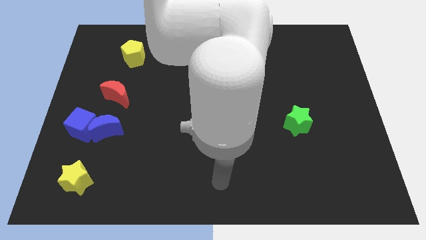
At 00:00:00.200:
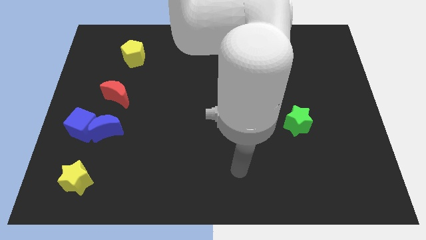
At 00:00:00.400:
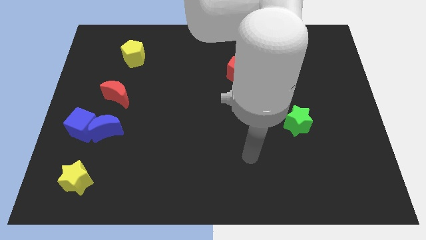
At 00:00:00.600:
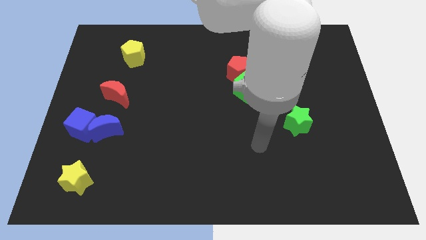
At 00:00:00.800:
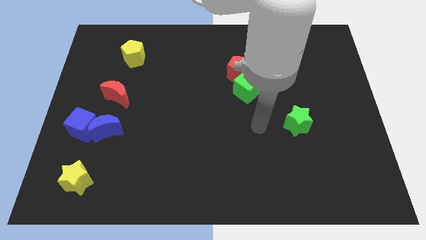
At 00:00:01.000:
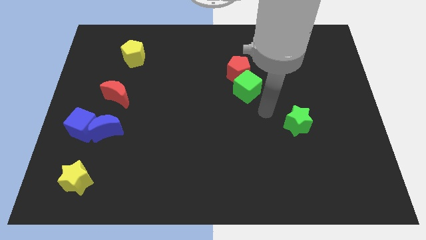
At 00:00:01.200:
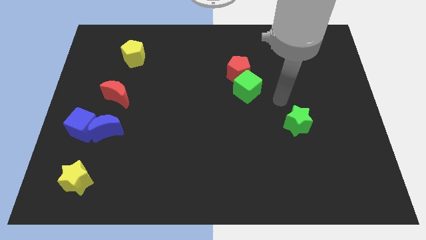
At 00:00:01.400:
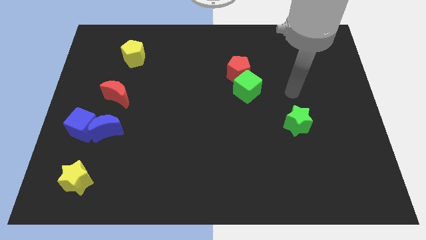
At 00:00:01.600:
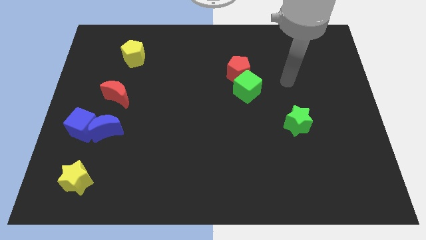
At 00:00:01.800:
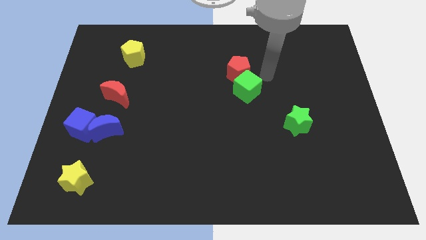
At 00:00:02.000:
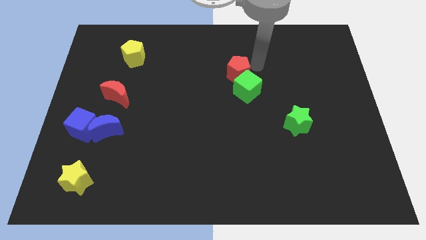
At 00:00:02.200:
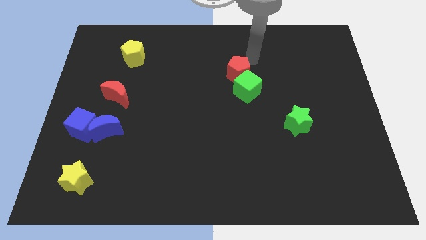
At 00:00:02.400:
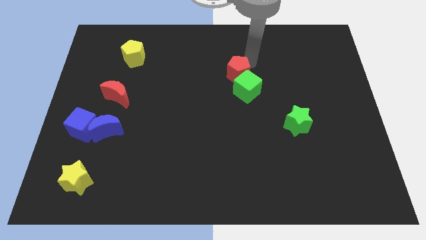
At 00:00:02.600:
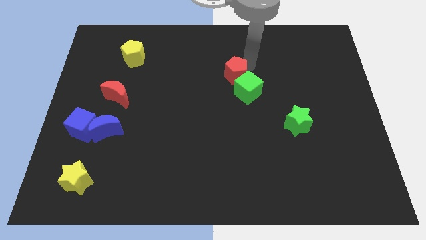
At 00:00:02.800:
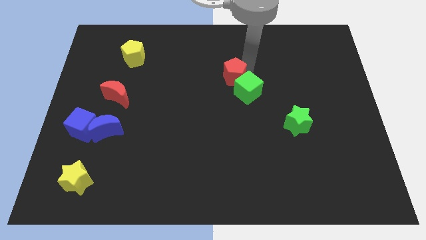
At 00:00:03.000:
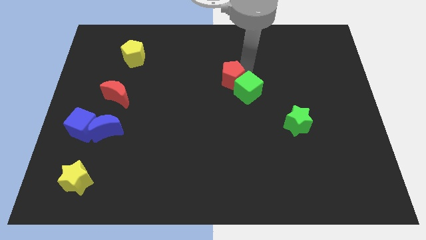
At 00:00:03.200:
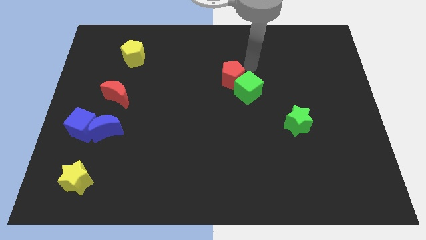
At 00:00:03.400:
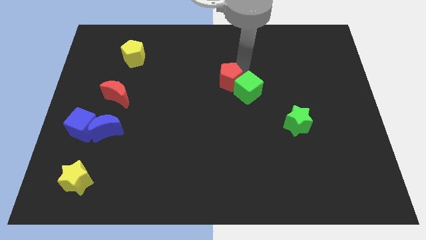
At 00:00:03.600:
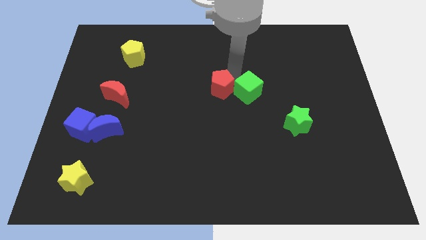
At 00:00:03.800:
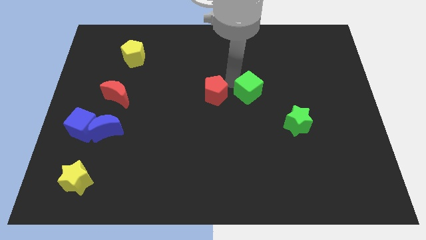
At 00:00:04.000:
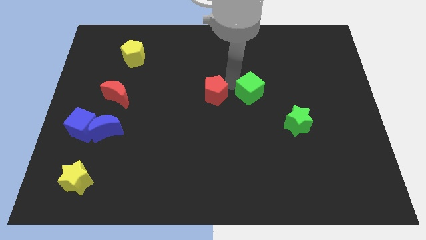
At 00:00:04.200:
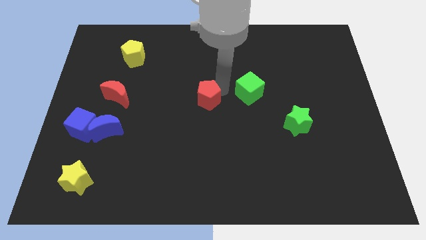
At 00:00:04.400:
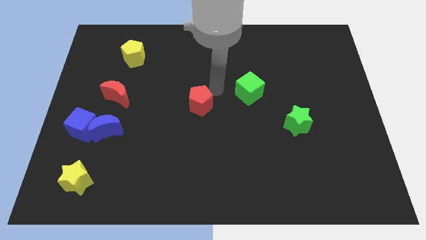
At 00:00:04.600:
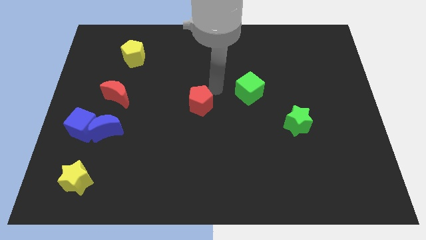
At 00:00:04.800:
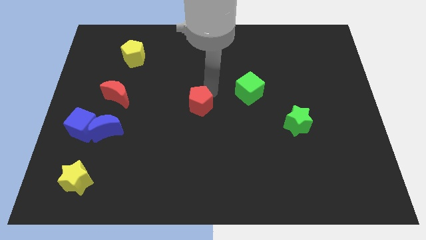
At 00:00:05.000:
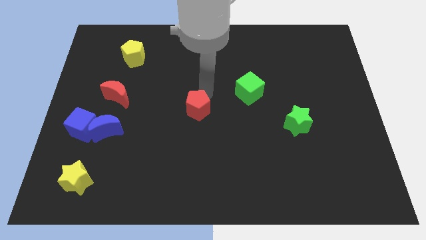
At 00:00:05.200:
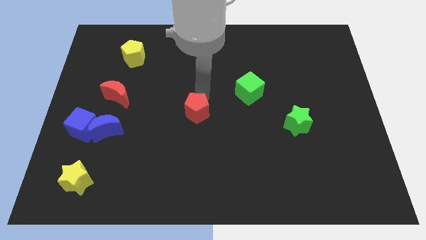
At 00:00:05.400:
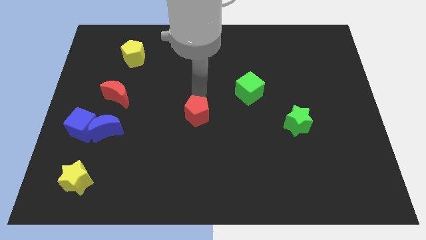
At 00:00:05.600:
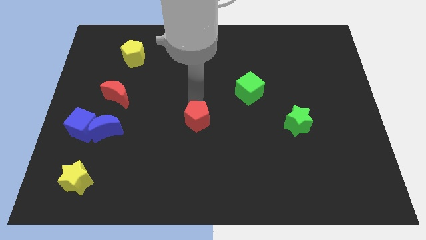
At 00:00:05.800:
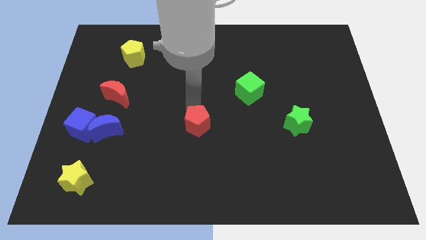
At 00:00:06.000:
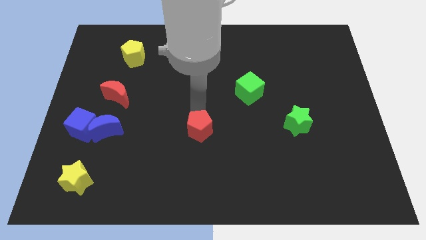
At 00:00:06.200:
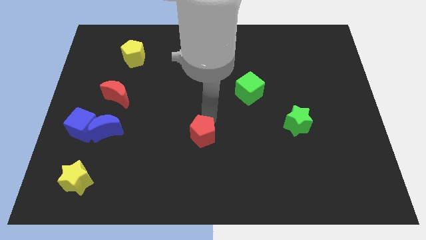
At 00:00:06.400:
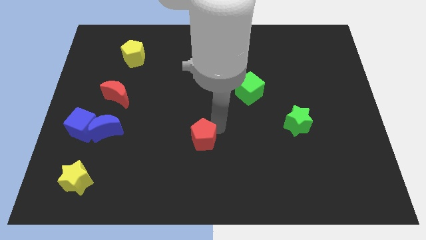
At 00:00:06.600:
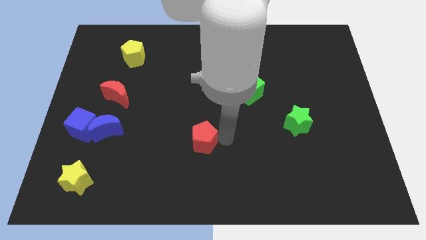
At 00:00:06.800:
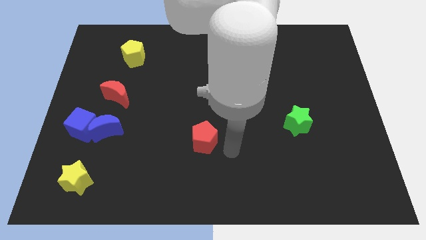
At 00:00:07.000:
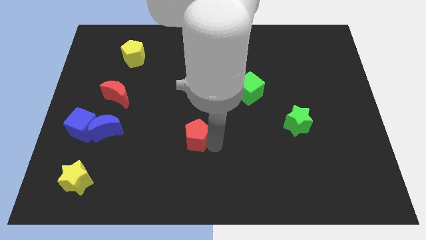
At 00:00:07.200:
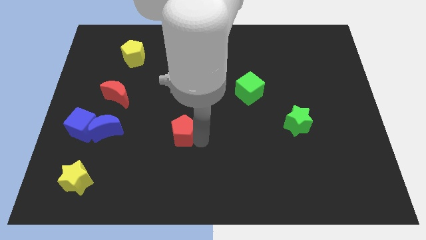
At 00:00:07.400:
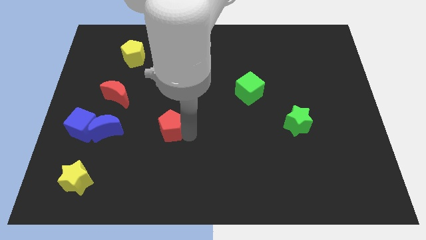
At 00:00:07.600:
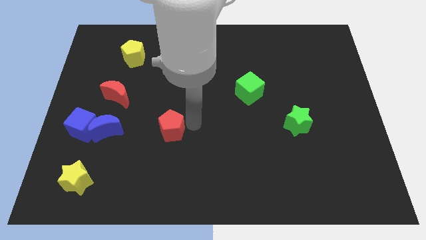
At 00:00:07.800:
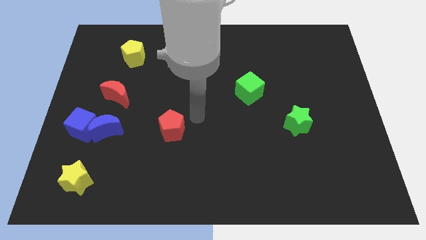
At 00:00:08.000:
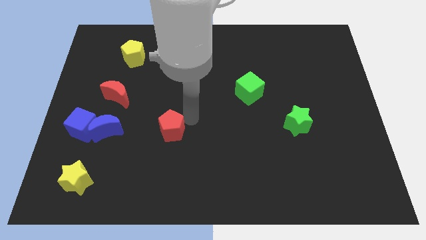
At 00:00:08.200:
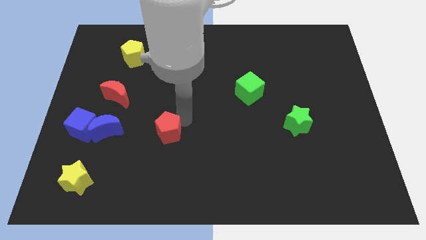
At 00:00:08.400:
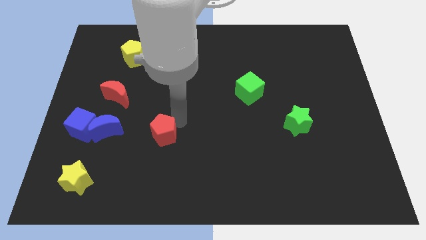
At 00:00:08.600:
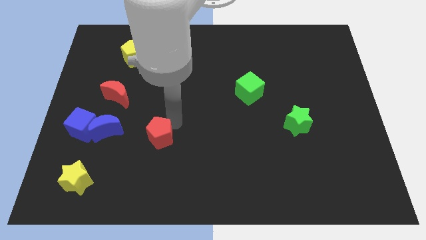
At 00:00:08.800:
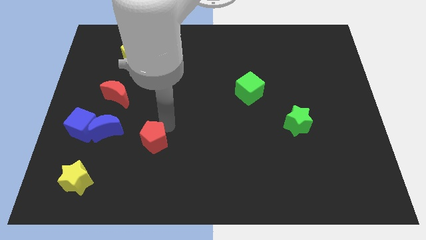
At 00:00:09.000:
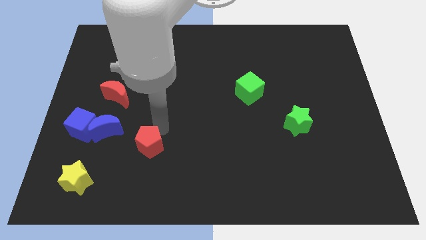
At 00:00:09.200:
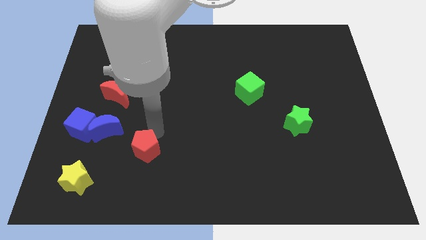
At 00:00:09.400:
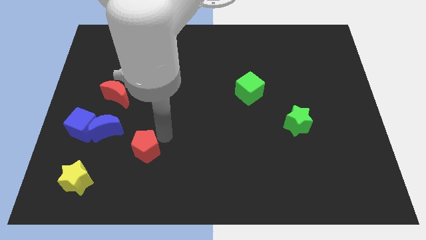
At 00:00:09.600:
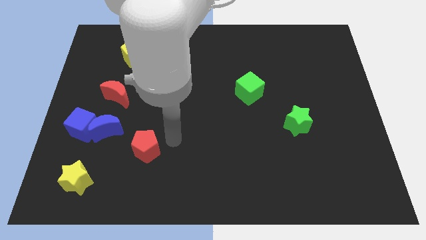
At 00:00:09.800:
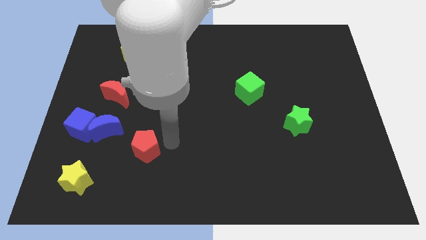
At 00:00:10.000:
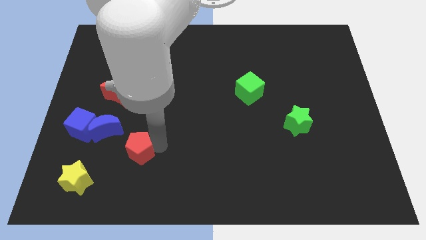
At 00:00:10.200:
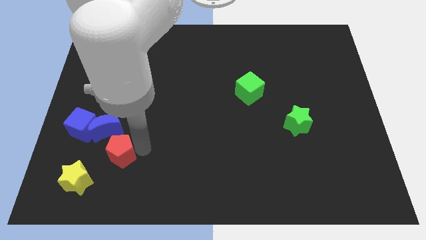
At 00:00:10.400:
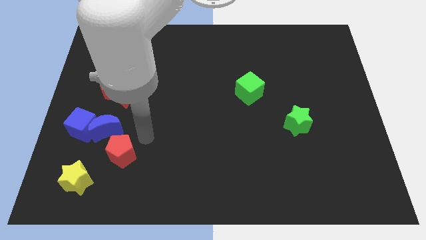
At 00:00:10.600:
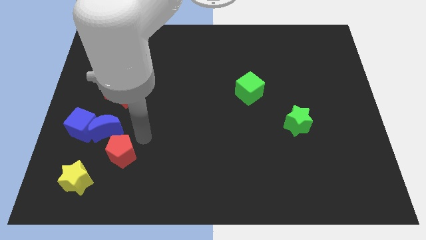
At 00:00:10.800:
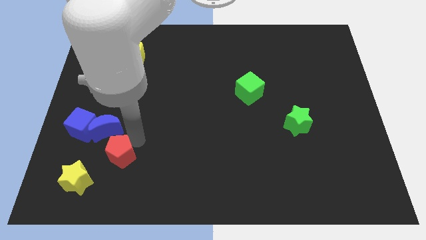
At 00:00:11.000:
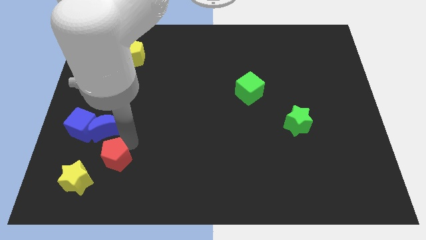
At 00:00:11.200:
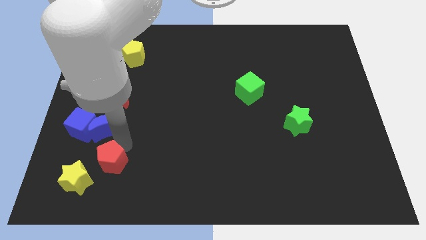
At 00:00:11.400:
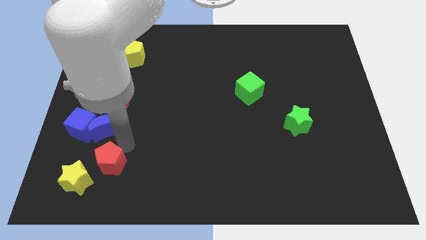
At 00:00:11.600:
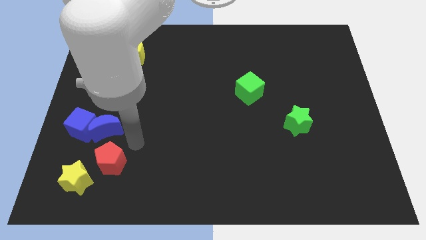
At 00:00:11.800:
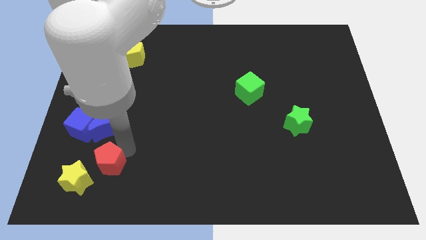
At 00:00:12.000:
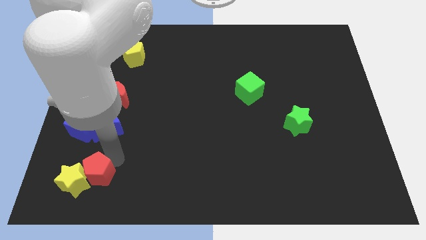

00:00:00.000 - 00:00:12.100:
put the red pentagon to the yellow star

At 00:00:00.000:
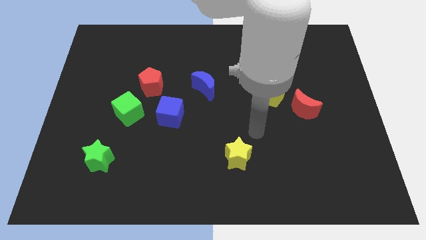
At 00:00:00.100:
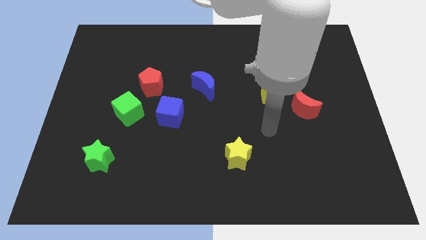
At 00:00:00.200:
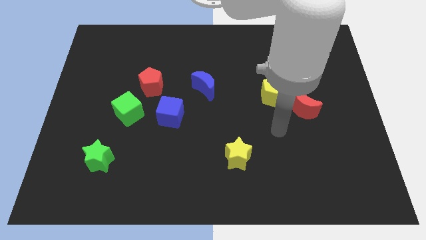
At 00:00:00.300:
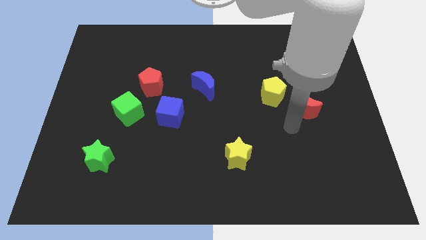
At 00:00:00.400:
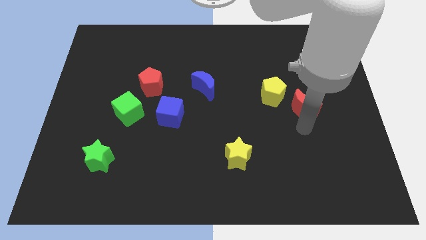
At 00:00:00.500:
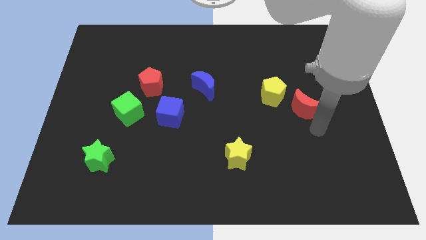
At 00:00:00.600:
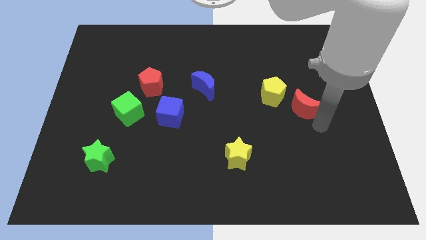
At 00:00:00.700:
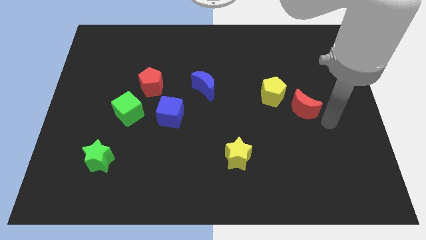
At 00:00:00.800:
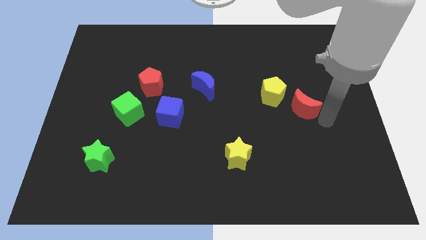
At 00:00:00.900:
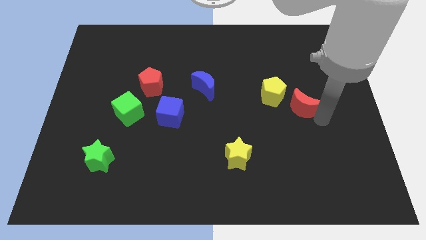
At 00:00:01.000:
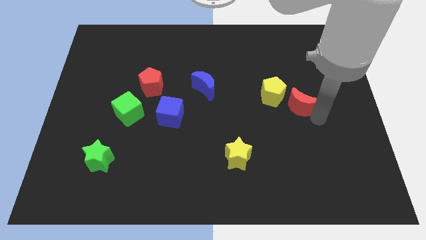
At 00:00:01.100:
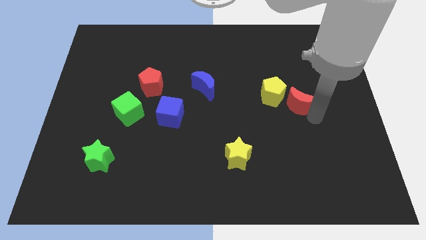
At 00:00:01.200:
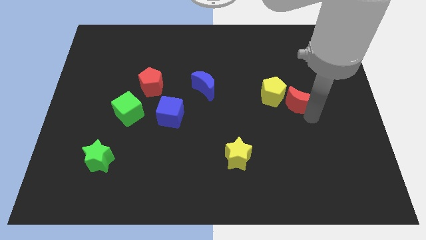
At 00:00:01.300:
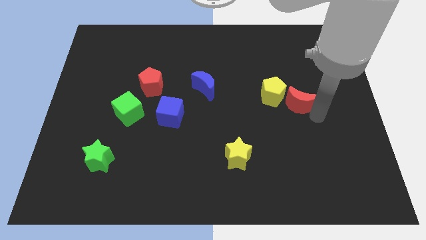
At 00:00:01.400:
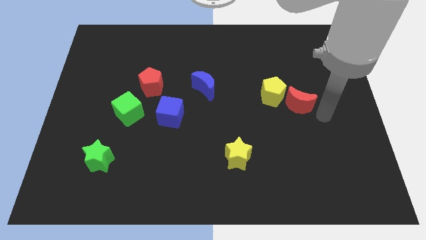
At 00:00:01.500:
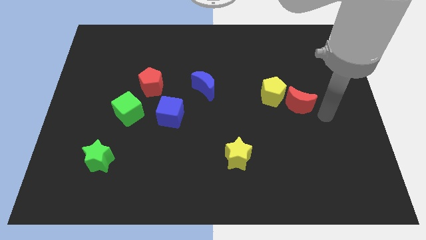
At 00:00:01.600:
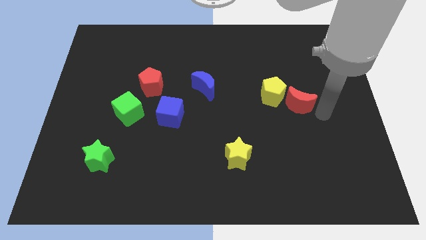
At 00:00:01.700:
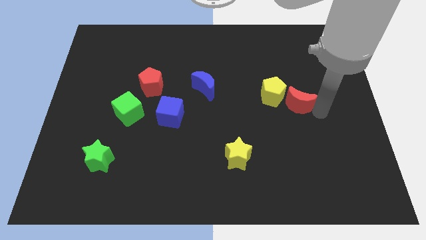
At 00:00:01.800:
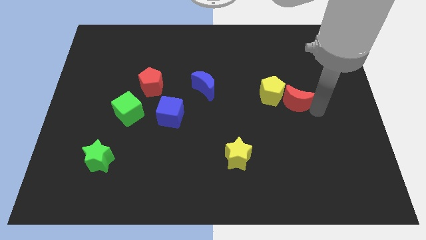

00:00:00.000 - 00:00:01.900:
slide the red moon towards the yellow pentagon
